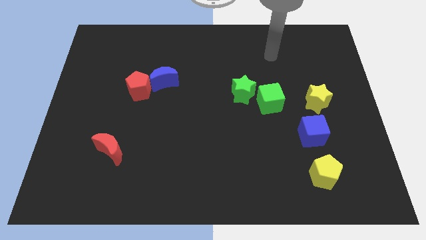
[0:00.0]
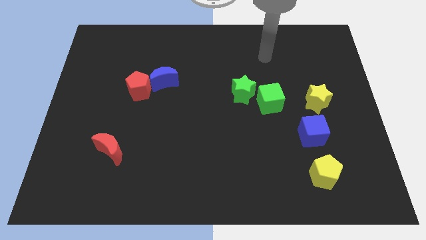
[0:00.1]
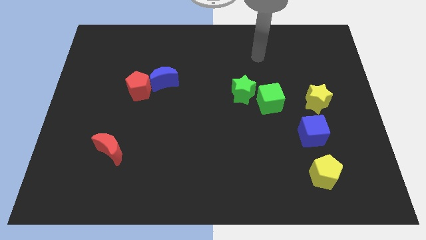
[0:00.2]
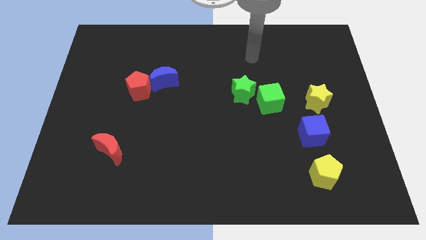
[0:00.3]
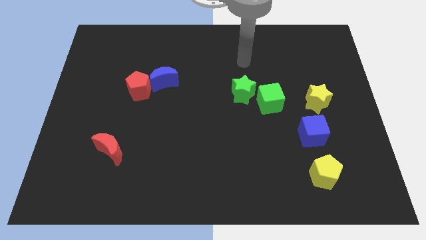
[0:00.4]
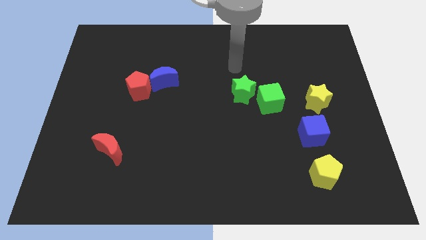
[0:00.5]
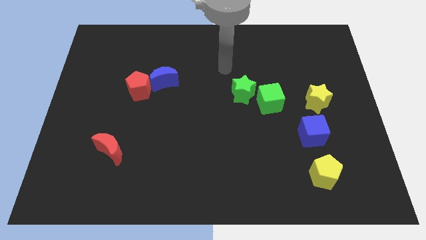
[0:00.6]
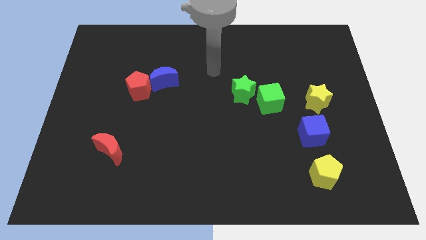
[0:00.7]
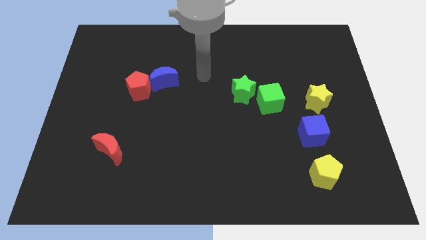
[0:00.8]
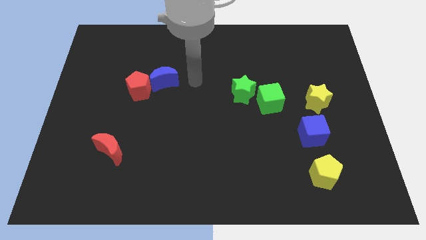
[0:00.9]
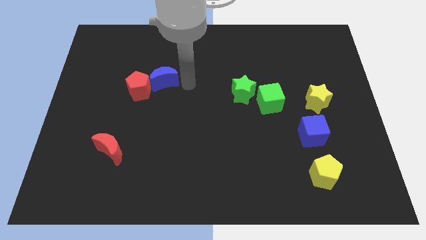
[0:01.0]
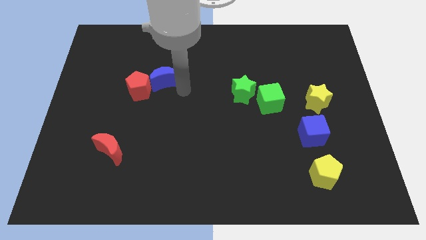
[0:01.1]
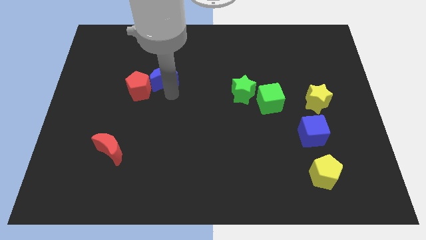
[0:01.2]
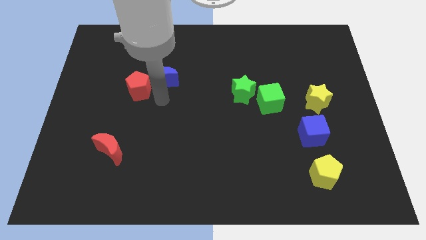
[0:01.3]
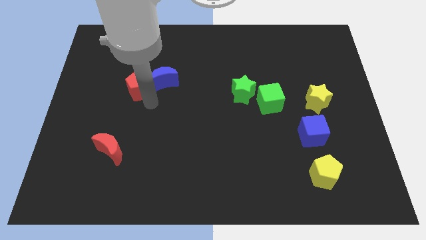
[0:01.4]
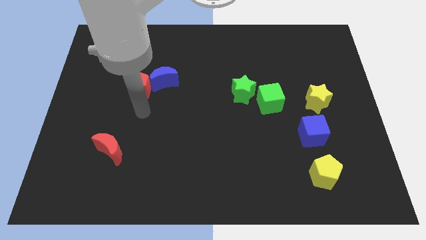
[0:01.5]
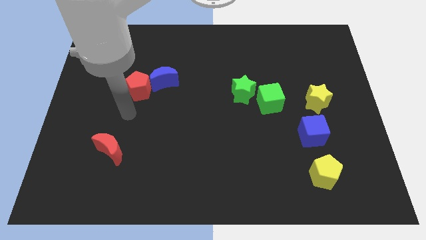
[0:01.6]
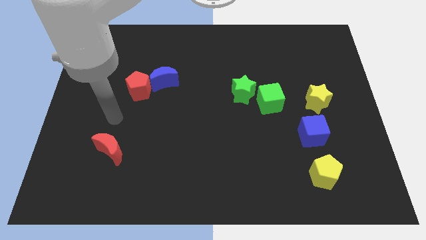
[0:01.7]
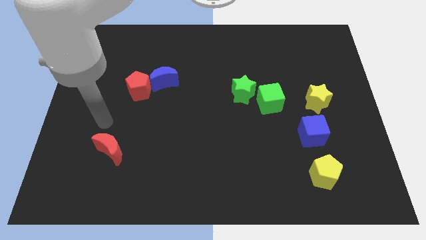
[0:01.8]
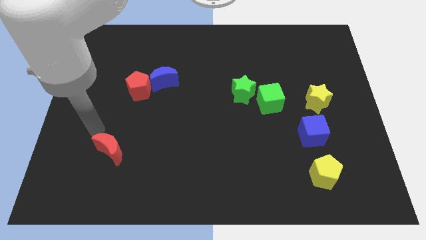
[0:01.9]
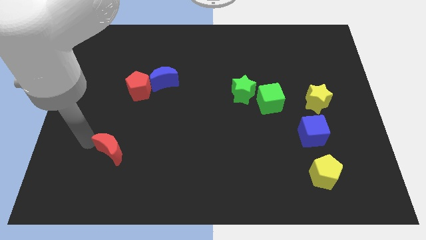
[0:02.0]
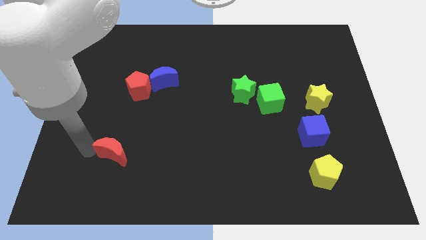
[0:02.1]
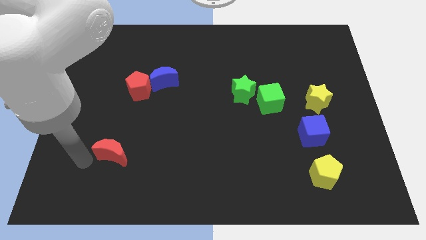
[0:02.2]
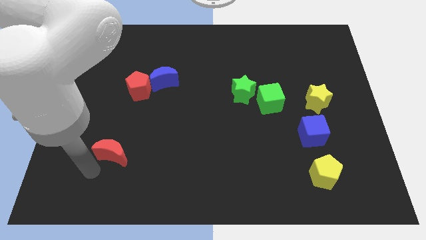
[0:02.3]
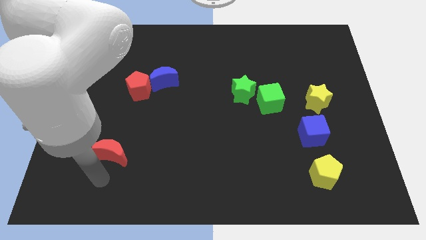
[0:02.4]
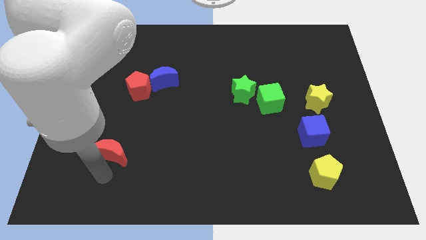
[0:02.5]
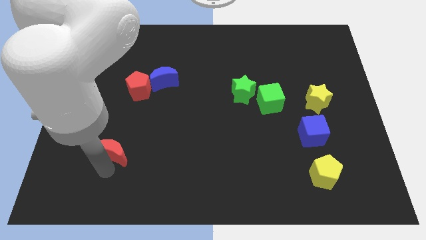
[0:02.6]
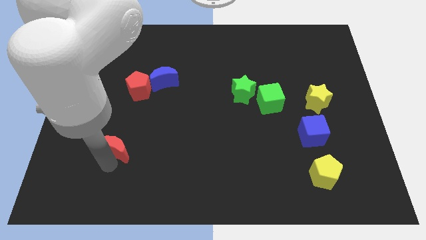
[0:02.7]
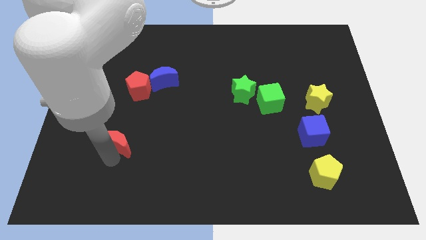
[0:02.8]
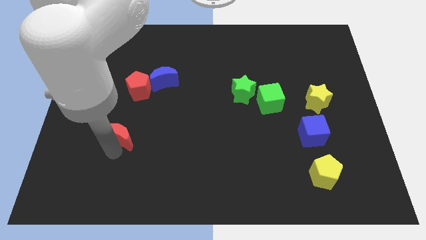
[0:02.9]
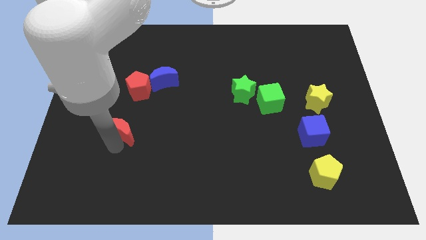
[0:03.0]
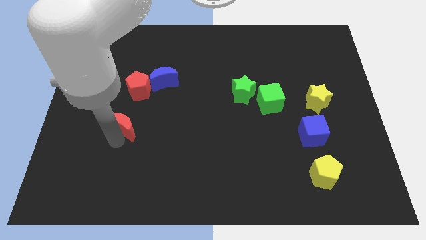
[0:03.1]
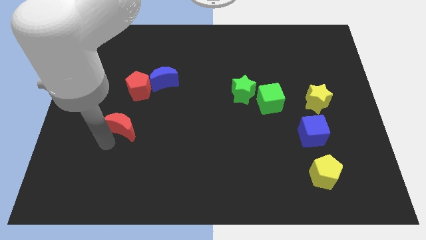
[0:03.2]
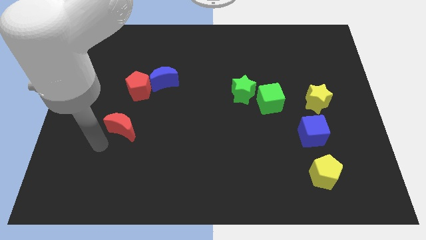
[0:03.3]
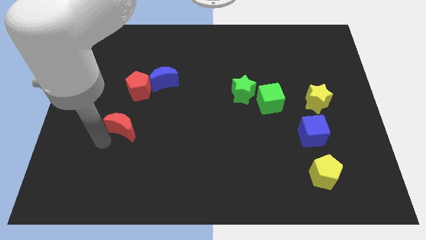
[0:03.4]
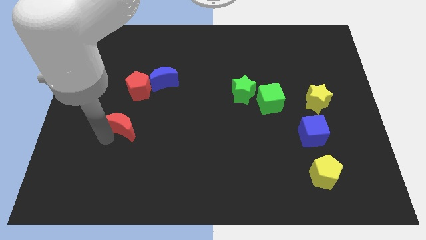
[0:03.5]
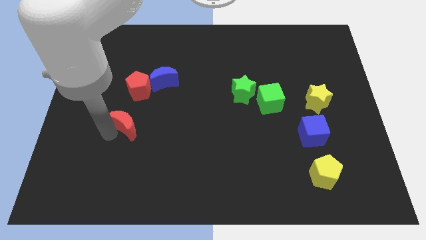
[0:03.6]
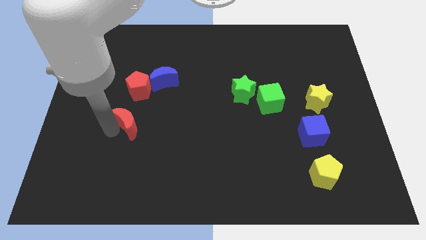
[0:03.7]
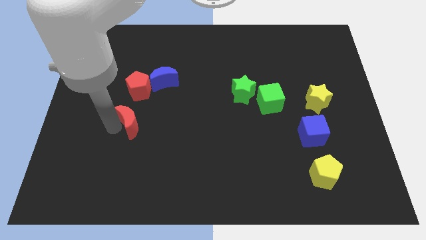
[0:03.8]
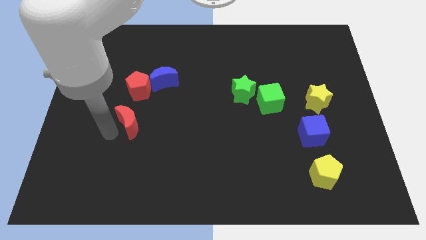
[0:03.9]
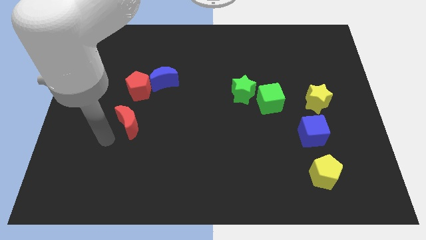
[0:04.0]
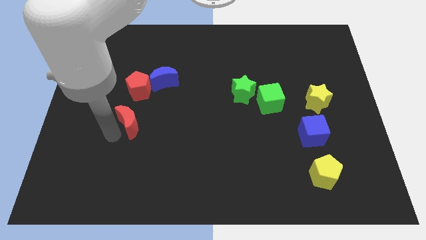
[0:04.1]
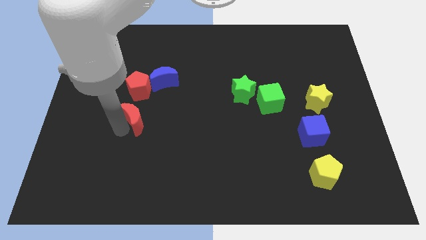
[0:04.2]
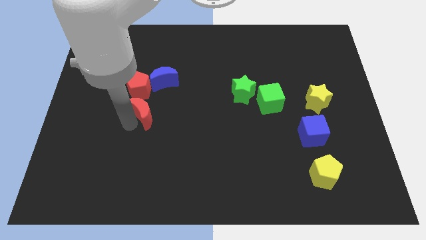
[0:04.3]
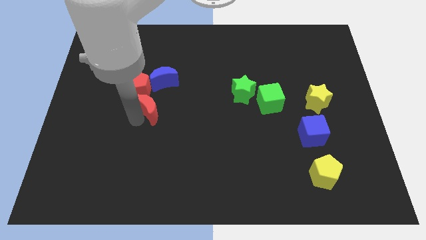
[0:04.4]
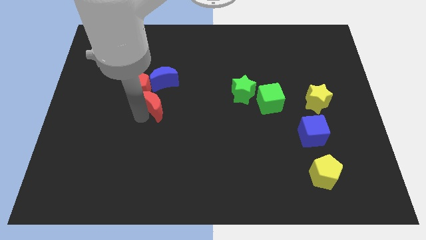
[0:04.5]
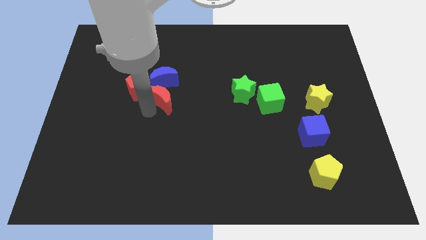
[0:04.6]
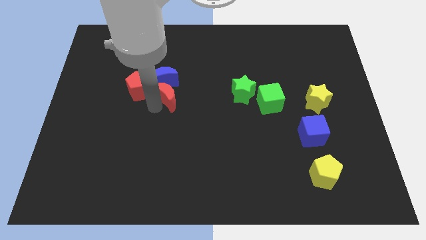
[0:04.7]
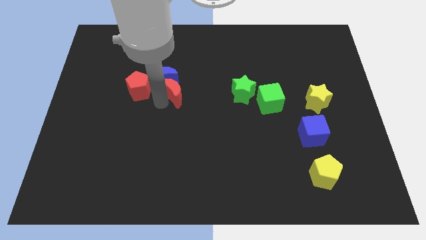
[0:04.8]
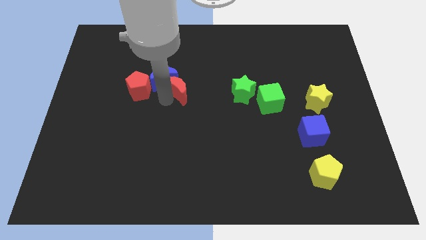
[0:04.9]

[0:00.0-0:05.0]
push the red moon diagonally upwards and right

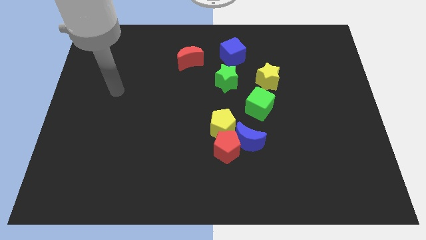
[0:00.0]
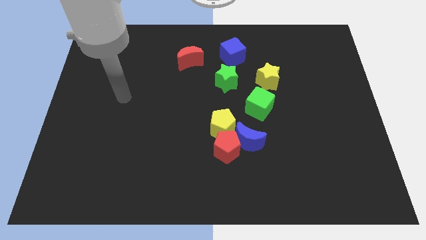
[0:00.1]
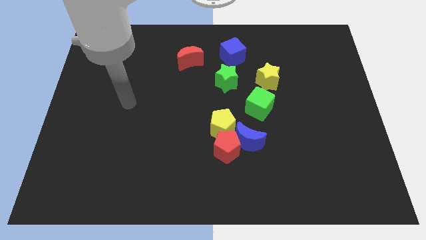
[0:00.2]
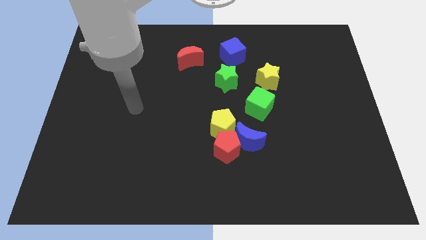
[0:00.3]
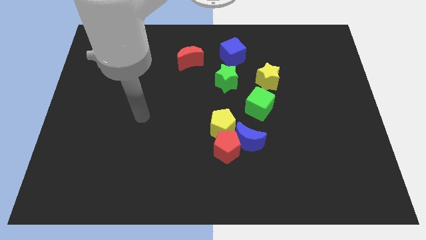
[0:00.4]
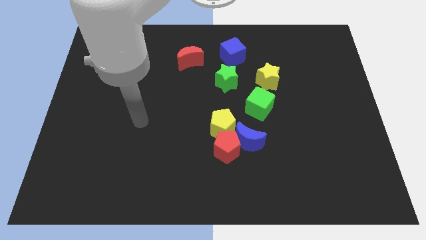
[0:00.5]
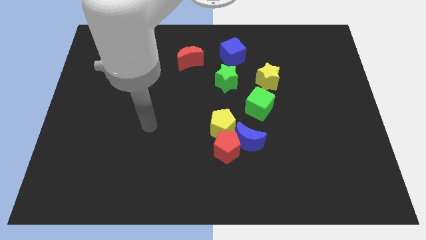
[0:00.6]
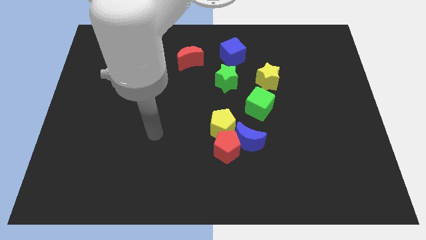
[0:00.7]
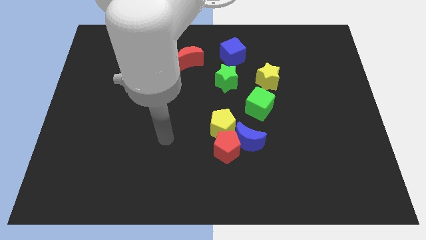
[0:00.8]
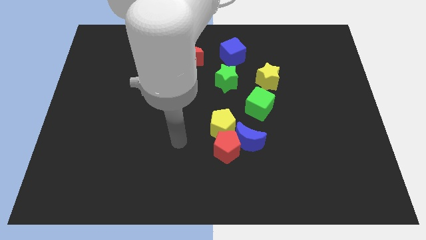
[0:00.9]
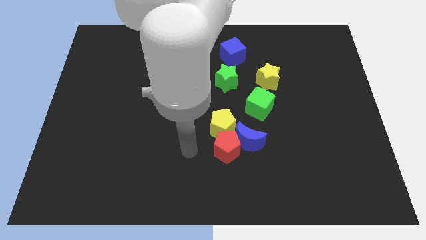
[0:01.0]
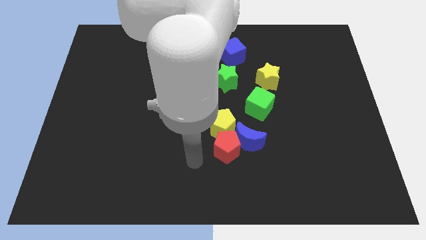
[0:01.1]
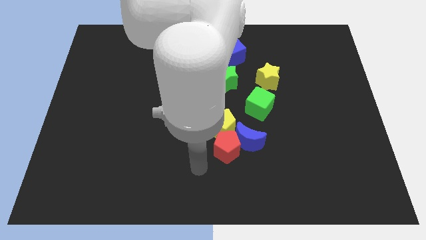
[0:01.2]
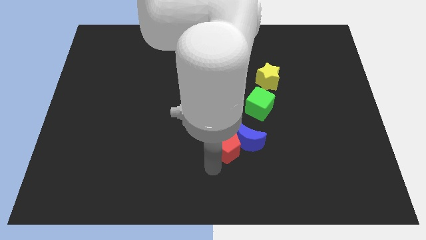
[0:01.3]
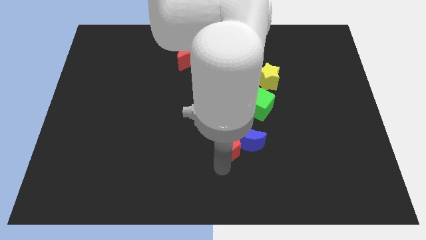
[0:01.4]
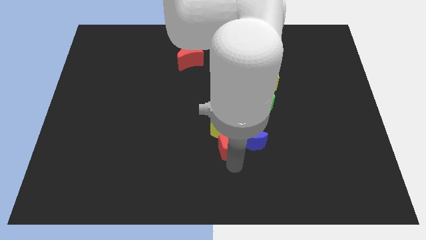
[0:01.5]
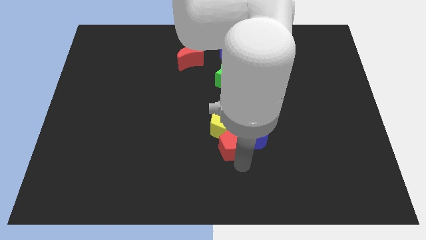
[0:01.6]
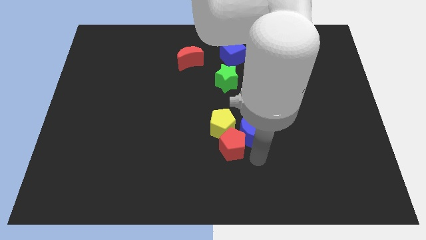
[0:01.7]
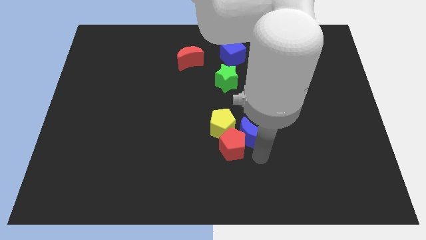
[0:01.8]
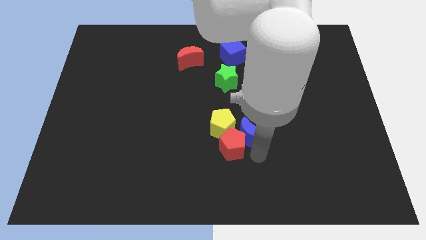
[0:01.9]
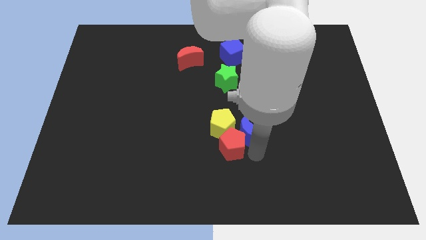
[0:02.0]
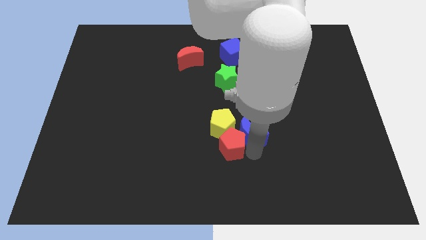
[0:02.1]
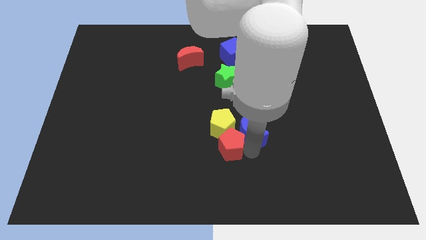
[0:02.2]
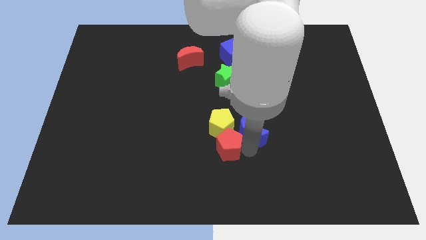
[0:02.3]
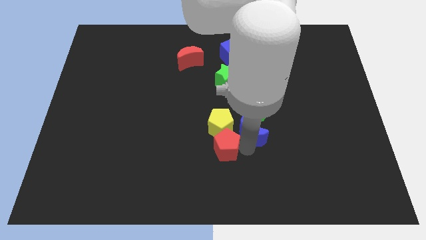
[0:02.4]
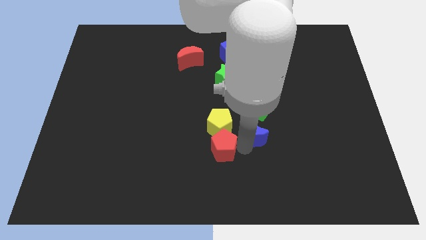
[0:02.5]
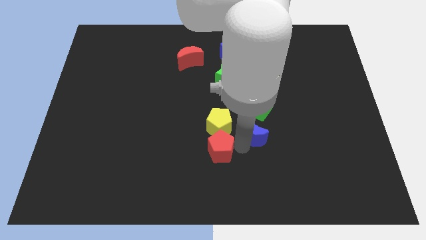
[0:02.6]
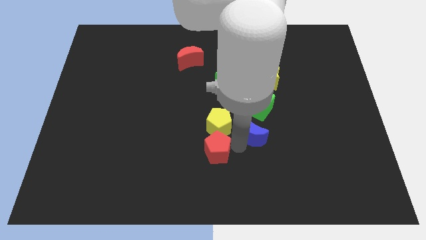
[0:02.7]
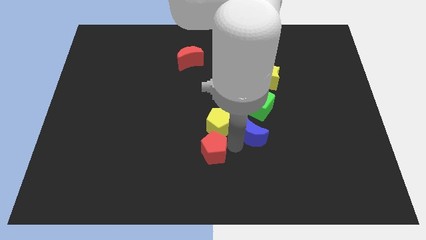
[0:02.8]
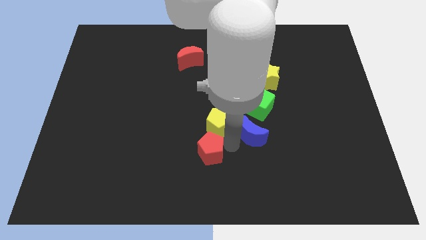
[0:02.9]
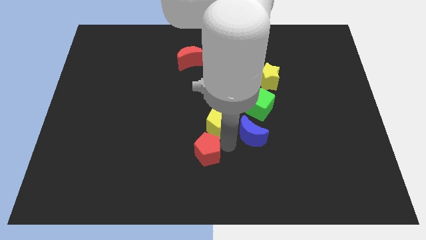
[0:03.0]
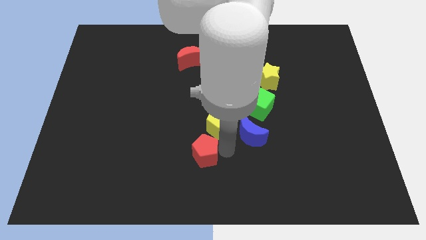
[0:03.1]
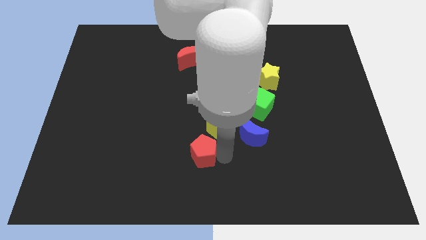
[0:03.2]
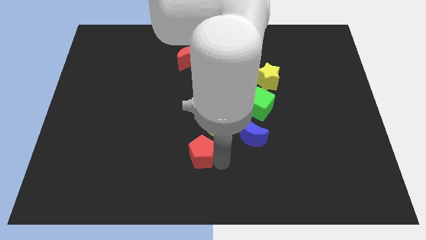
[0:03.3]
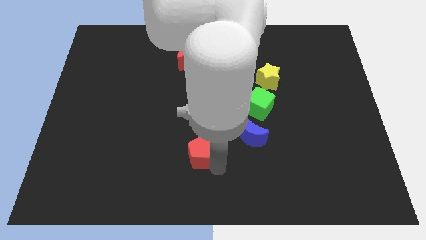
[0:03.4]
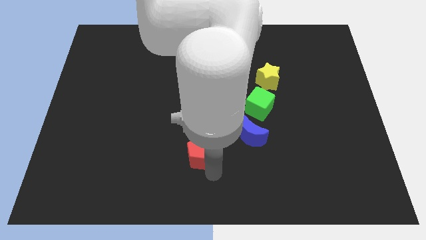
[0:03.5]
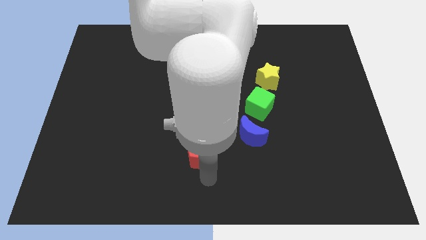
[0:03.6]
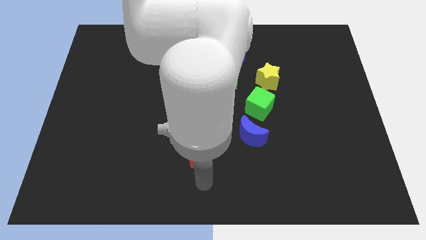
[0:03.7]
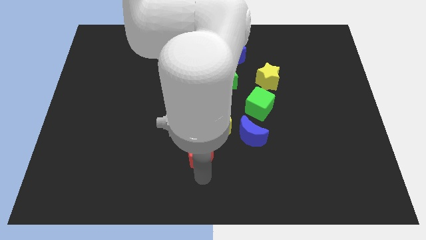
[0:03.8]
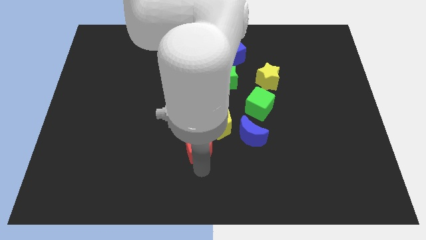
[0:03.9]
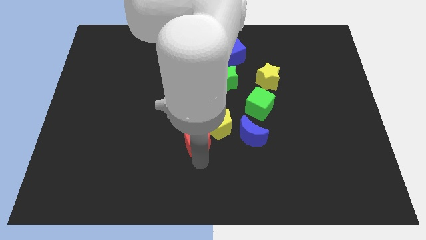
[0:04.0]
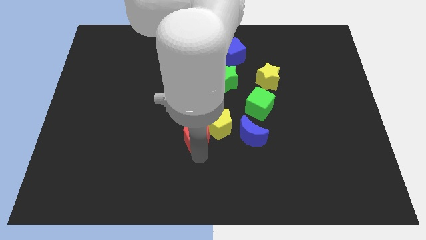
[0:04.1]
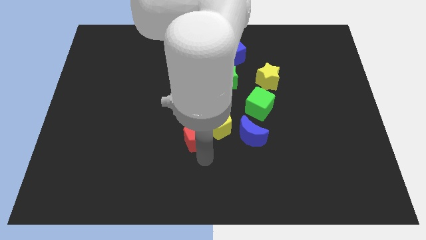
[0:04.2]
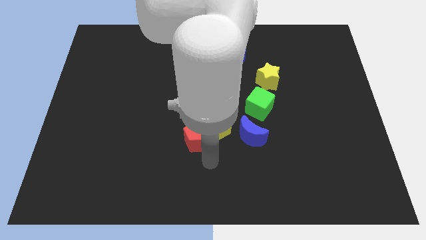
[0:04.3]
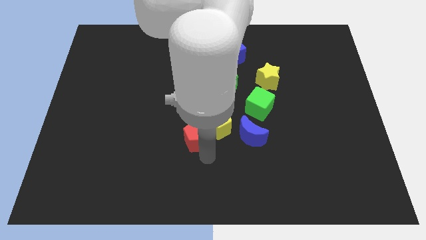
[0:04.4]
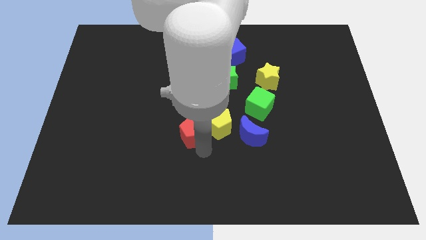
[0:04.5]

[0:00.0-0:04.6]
push the red pentagon diagonally up and to the left somewhat
